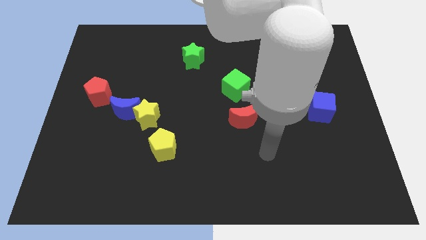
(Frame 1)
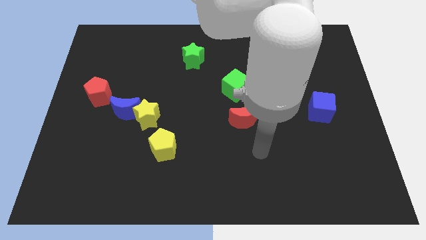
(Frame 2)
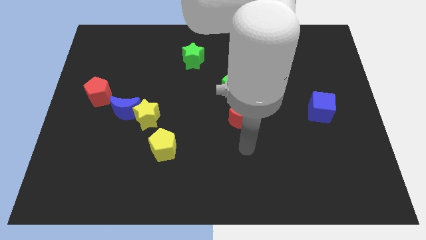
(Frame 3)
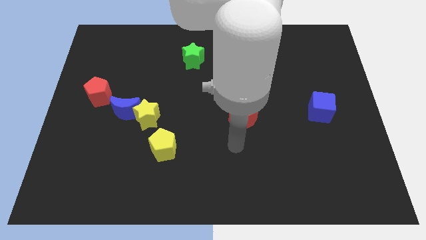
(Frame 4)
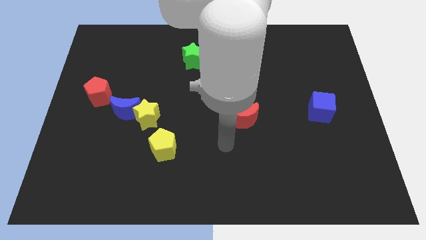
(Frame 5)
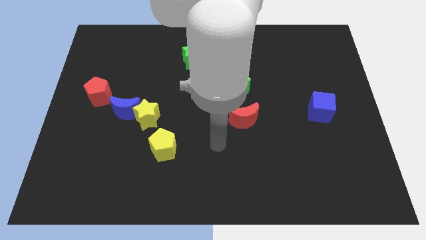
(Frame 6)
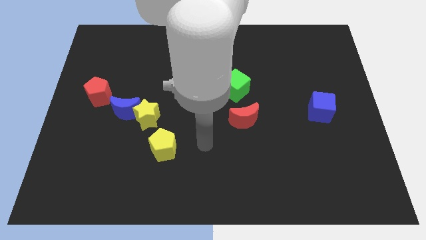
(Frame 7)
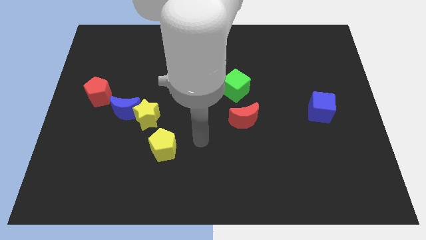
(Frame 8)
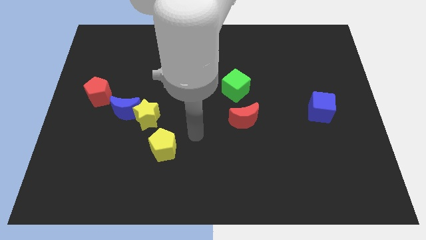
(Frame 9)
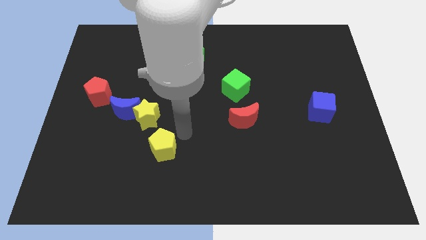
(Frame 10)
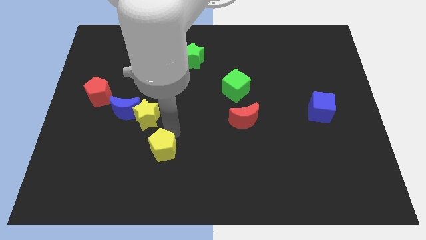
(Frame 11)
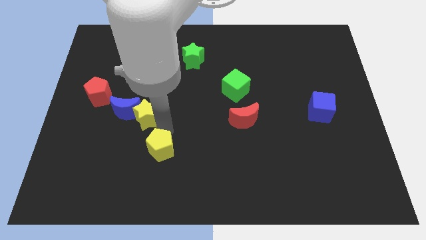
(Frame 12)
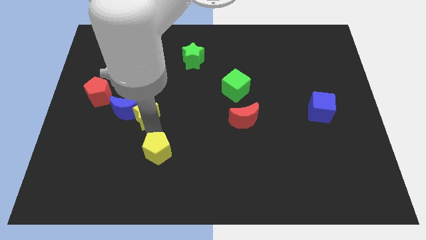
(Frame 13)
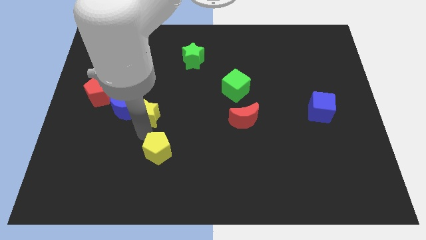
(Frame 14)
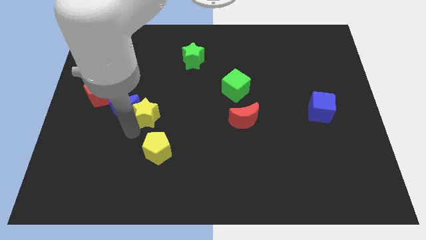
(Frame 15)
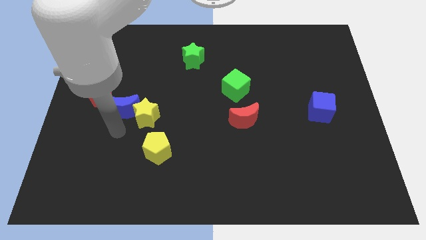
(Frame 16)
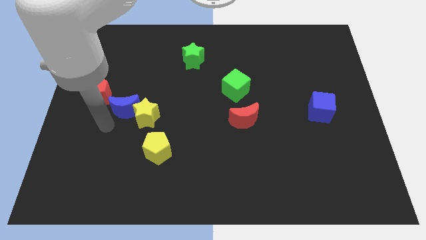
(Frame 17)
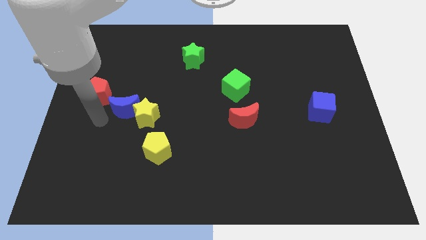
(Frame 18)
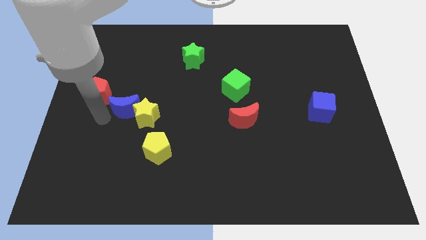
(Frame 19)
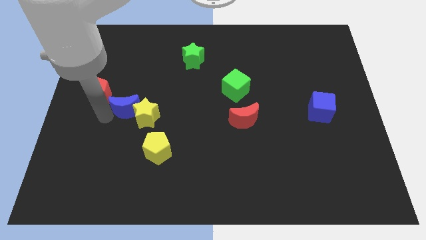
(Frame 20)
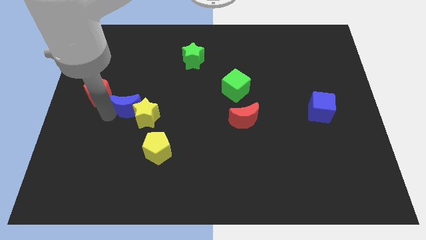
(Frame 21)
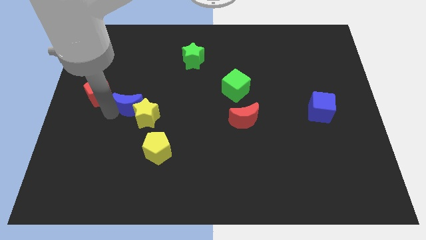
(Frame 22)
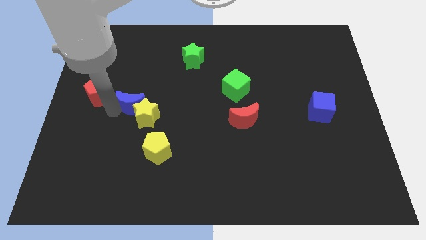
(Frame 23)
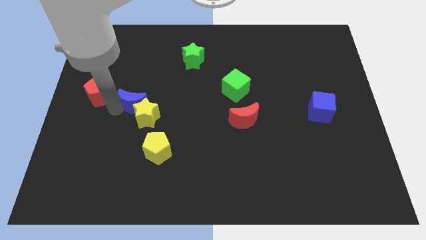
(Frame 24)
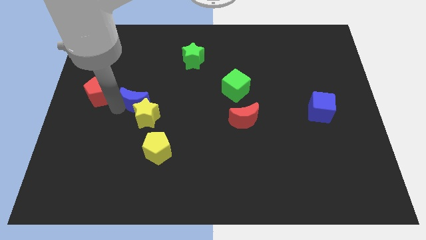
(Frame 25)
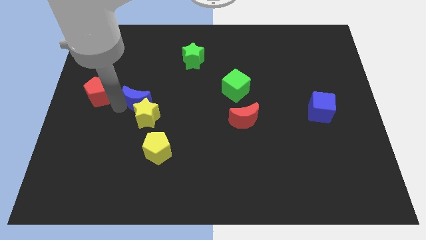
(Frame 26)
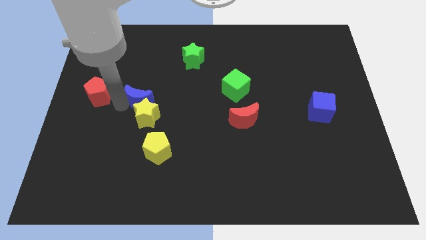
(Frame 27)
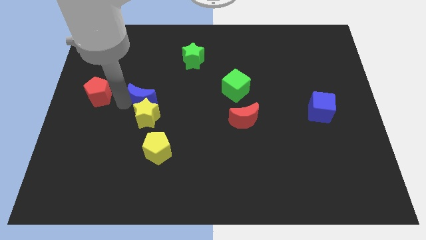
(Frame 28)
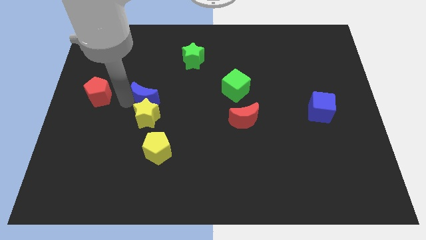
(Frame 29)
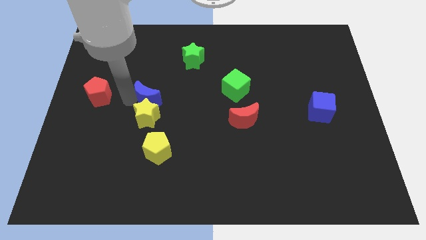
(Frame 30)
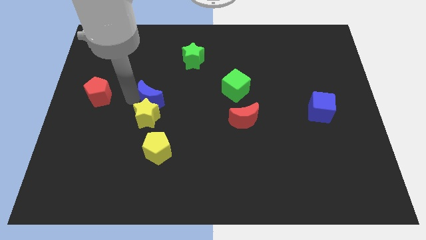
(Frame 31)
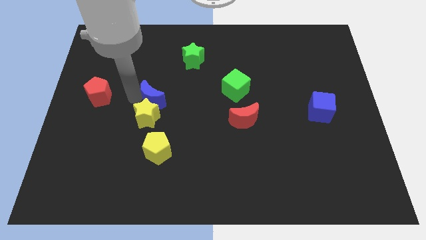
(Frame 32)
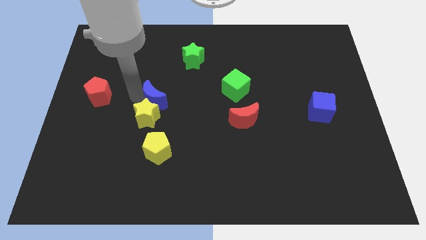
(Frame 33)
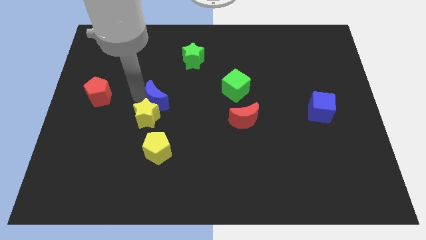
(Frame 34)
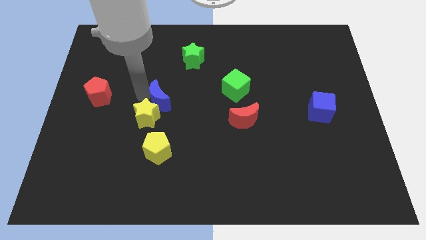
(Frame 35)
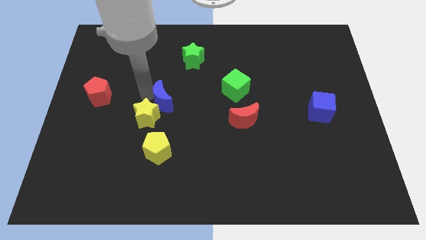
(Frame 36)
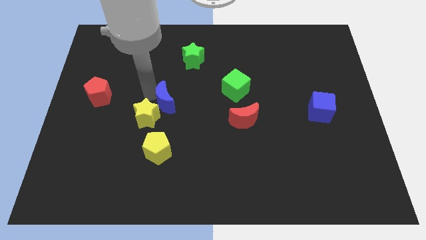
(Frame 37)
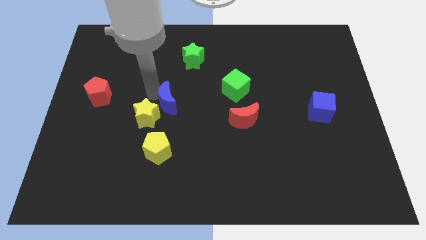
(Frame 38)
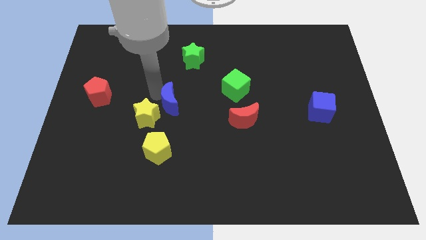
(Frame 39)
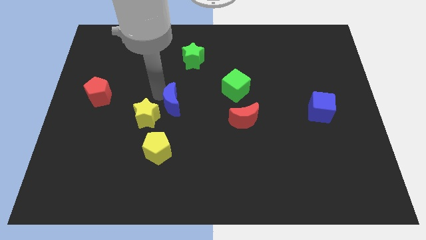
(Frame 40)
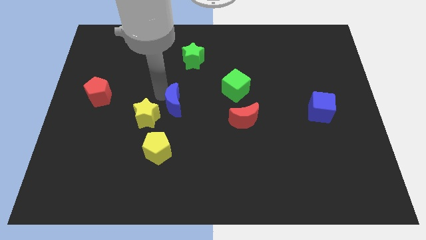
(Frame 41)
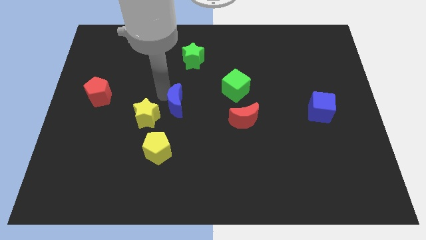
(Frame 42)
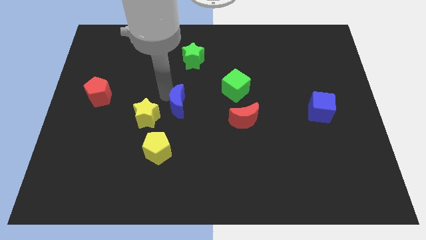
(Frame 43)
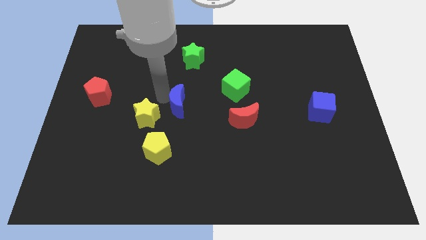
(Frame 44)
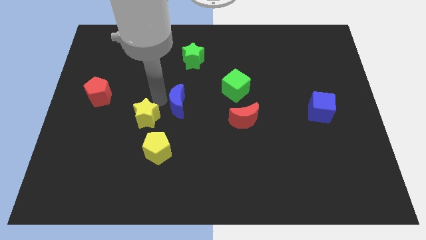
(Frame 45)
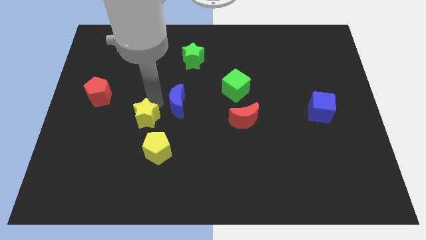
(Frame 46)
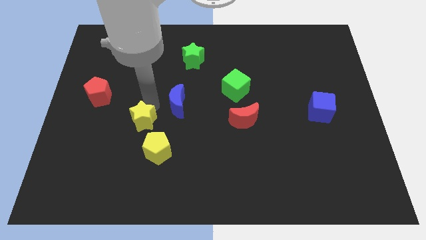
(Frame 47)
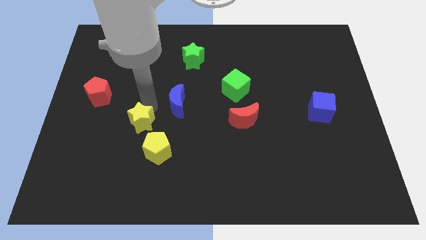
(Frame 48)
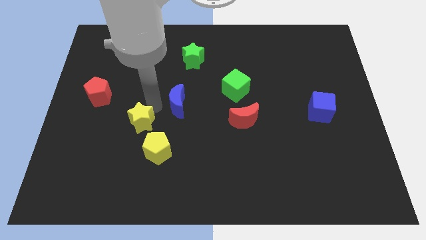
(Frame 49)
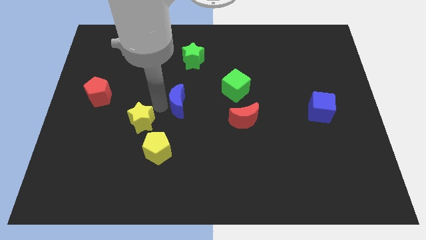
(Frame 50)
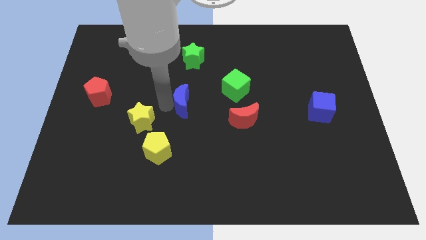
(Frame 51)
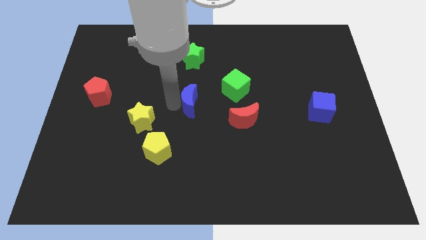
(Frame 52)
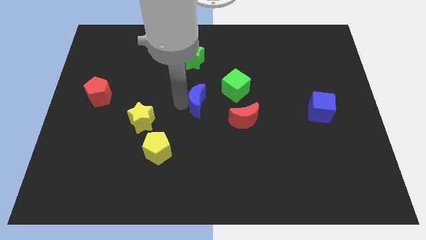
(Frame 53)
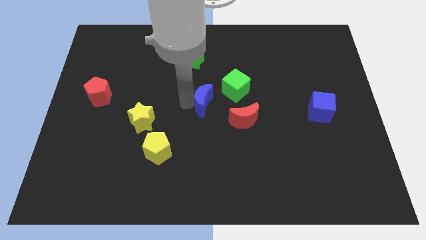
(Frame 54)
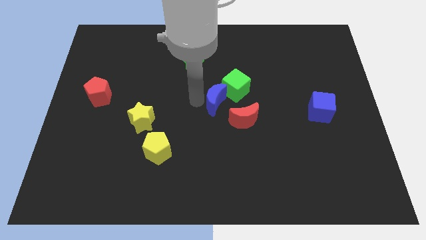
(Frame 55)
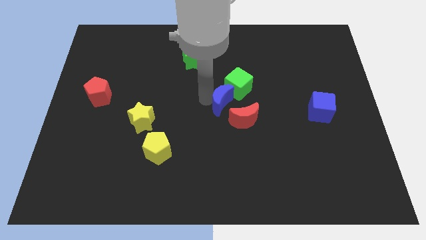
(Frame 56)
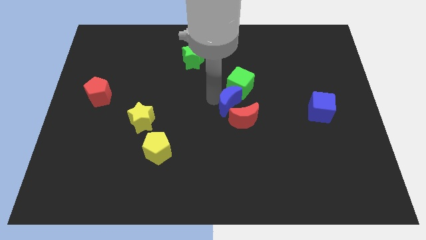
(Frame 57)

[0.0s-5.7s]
put the blue moon close to the red moon

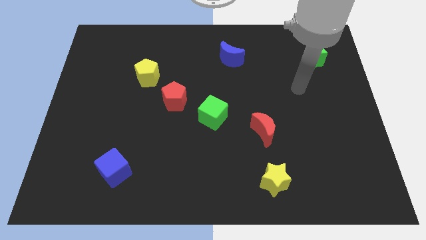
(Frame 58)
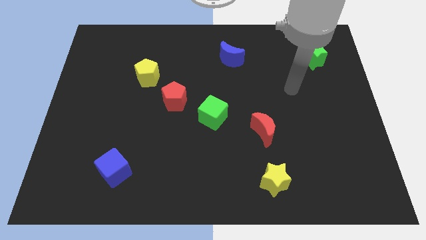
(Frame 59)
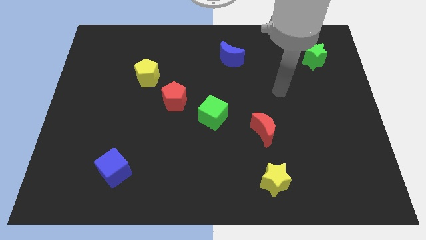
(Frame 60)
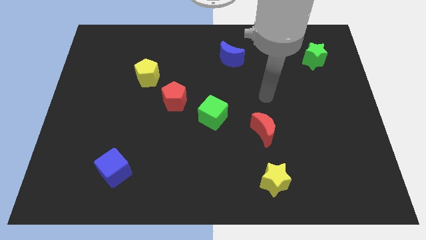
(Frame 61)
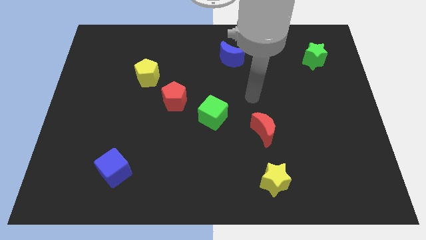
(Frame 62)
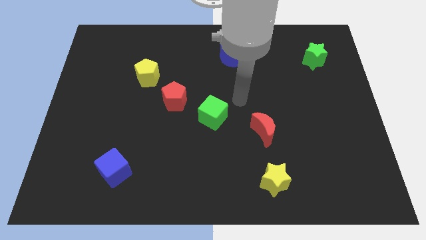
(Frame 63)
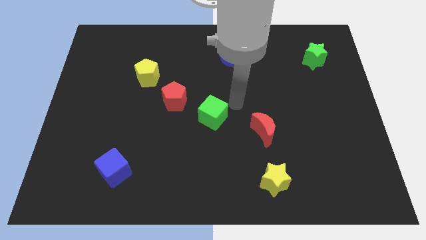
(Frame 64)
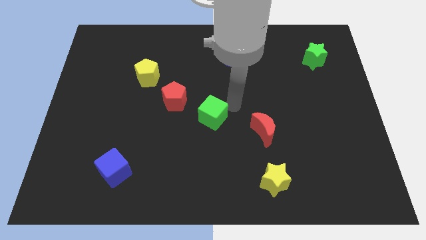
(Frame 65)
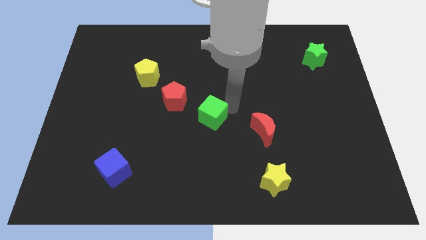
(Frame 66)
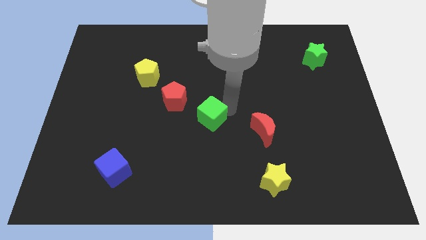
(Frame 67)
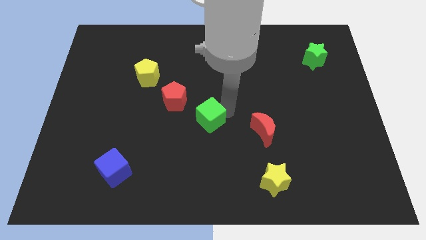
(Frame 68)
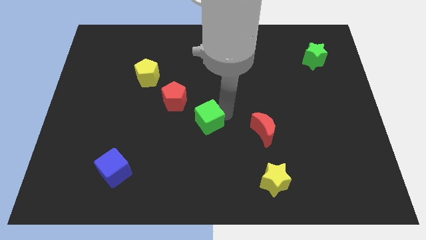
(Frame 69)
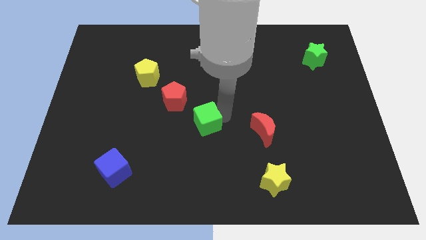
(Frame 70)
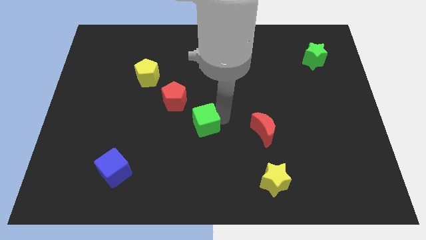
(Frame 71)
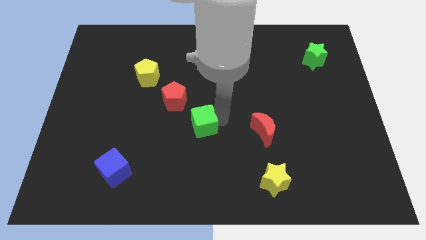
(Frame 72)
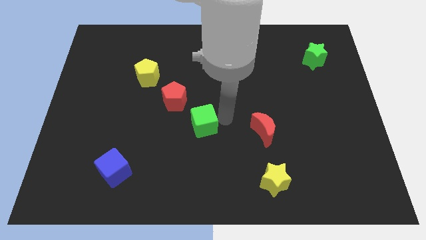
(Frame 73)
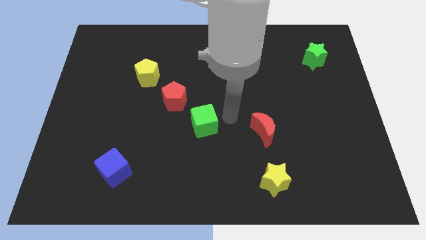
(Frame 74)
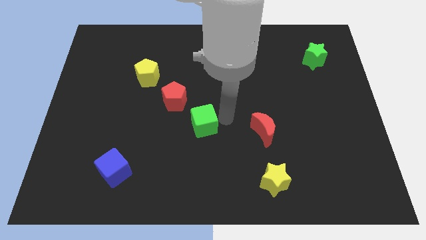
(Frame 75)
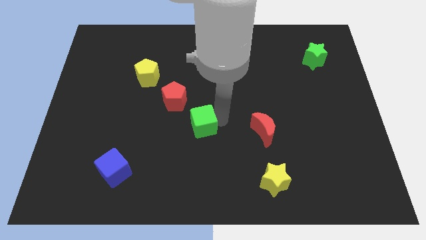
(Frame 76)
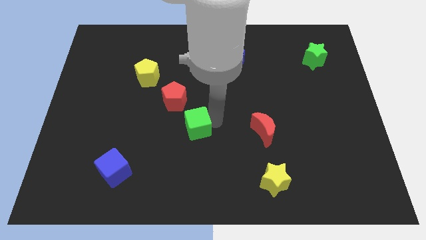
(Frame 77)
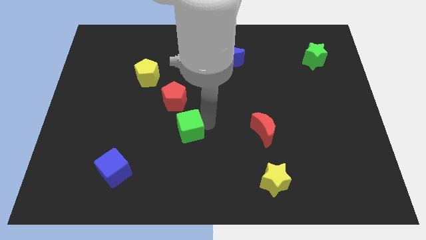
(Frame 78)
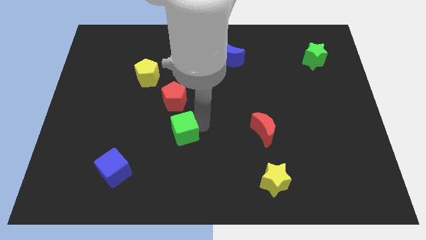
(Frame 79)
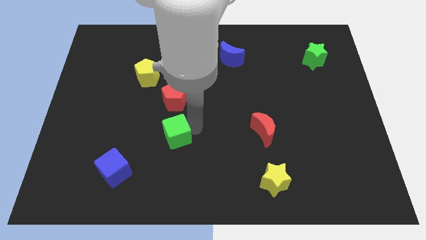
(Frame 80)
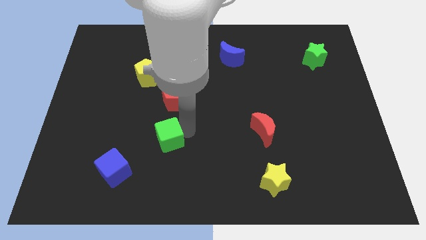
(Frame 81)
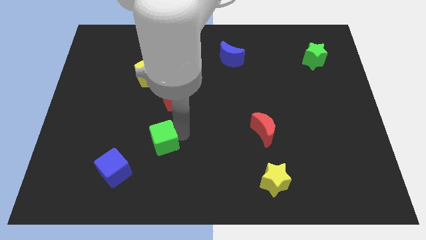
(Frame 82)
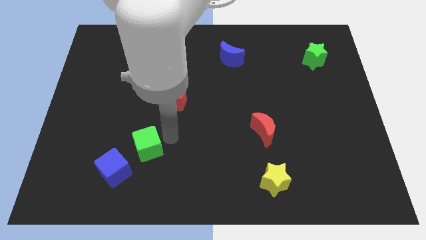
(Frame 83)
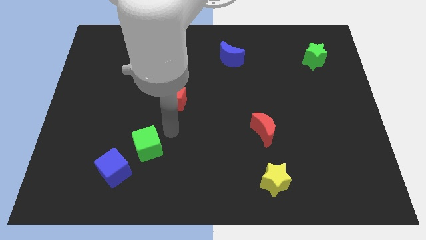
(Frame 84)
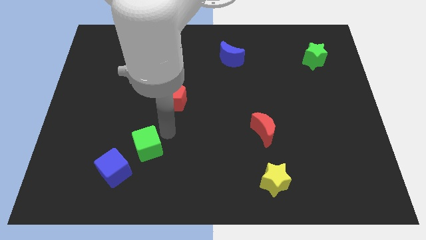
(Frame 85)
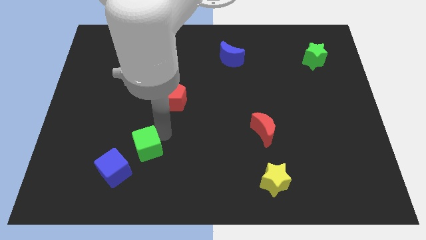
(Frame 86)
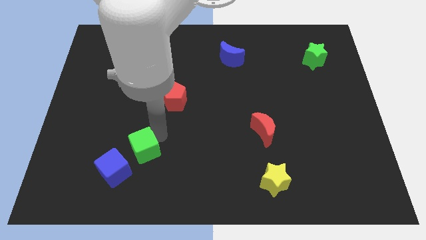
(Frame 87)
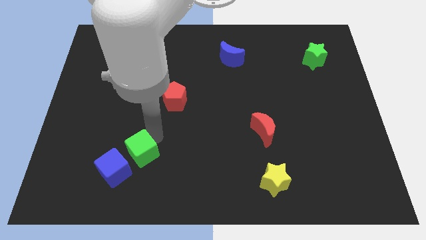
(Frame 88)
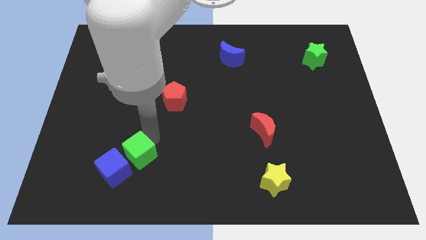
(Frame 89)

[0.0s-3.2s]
slide the green cube next to the blue cube
